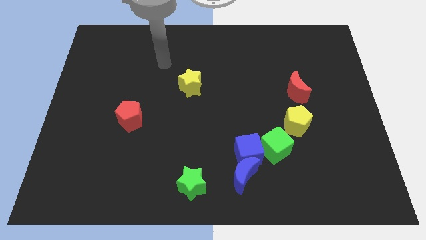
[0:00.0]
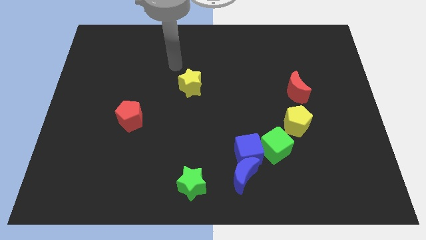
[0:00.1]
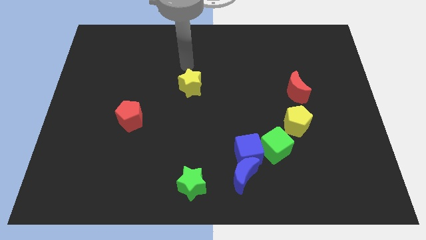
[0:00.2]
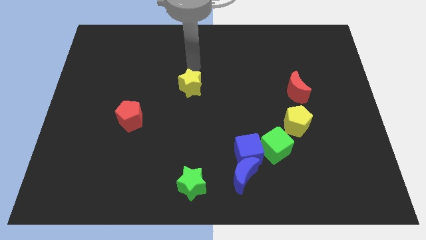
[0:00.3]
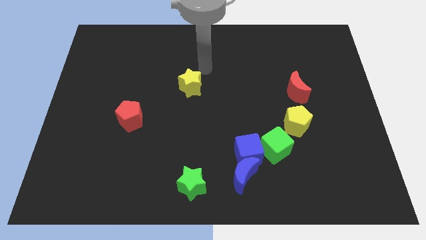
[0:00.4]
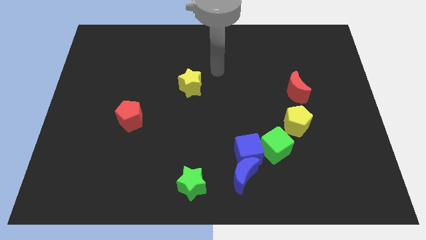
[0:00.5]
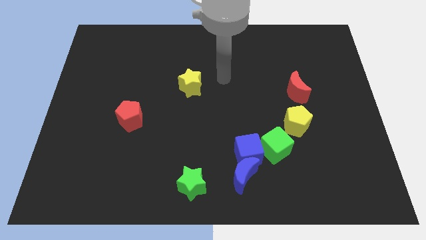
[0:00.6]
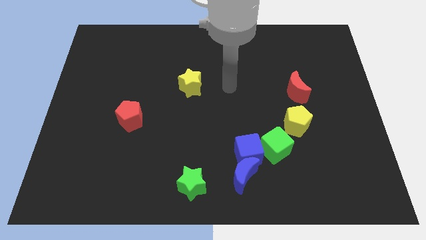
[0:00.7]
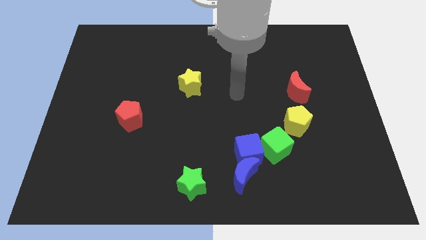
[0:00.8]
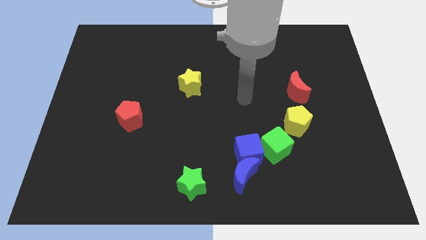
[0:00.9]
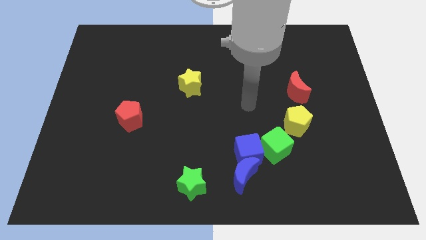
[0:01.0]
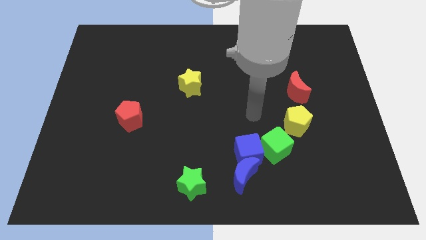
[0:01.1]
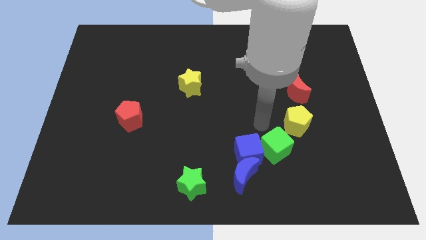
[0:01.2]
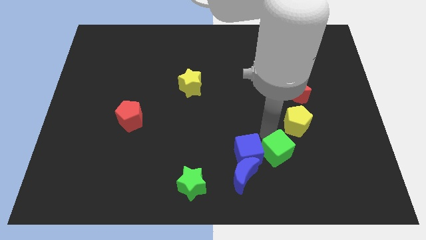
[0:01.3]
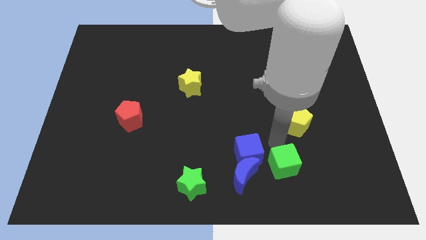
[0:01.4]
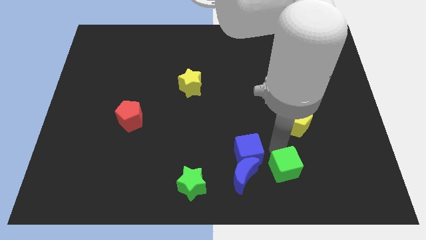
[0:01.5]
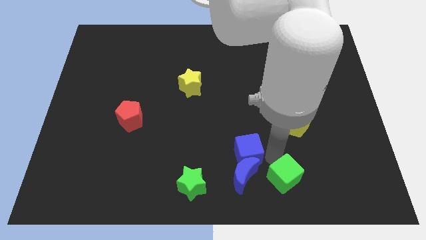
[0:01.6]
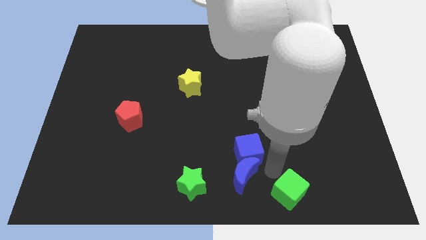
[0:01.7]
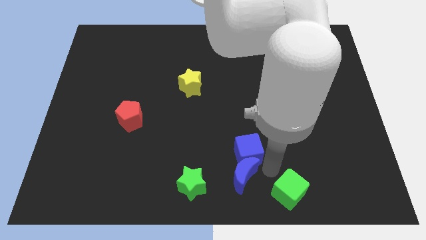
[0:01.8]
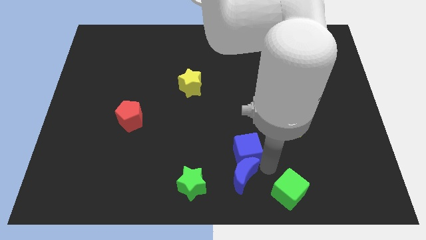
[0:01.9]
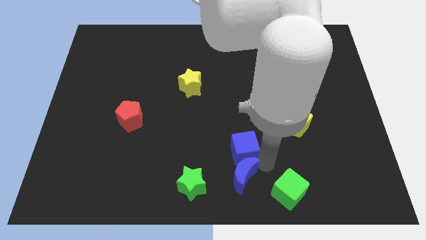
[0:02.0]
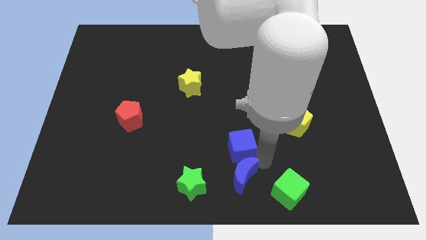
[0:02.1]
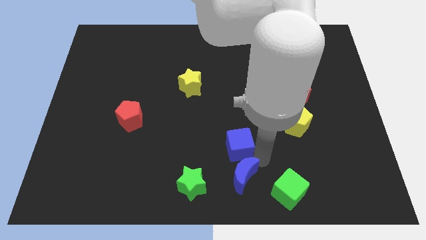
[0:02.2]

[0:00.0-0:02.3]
pull the blue cube apart from the blue moon and green cube

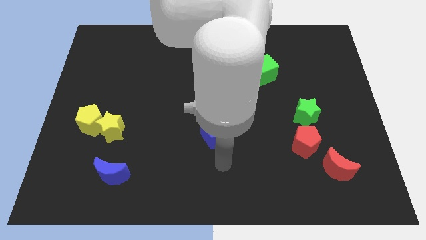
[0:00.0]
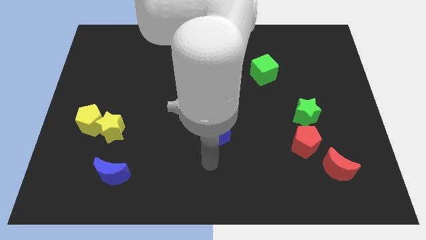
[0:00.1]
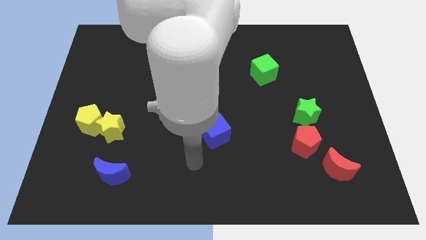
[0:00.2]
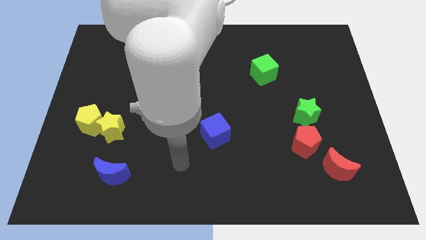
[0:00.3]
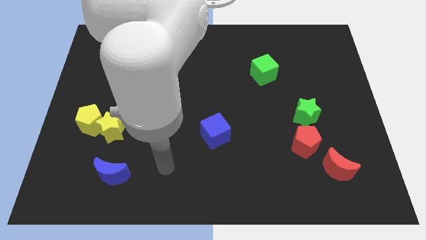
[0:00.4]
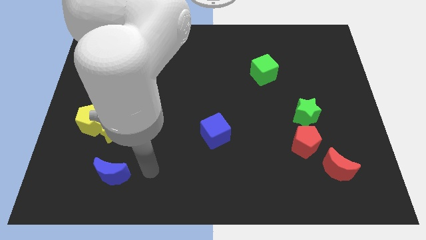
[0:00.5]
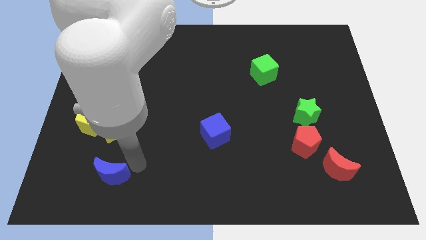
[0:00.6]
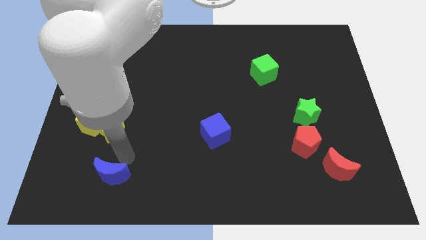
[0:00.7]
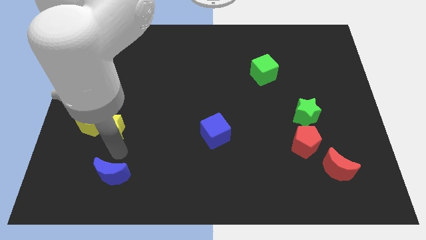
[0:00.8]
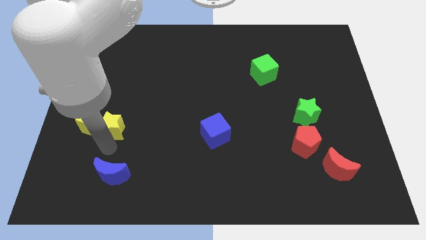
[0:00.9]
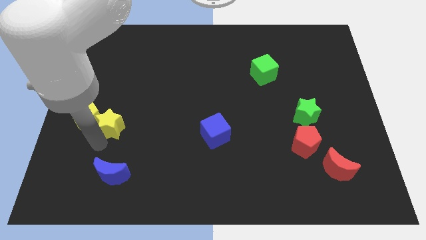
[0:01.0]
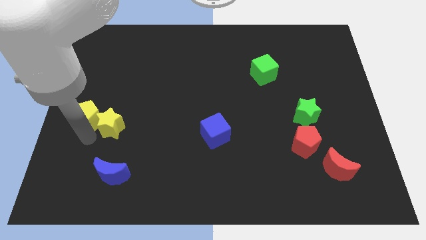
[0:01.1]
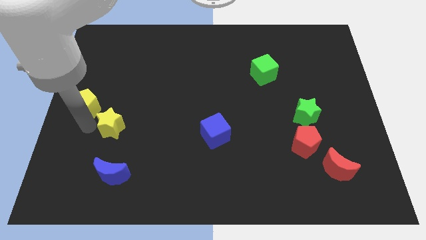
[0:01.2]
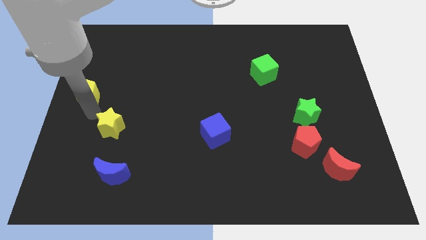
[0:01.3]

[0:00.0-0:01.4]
move the yellow star away from the yellow pentagon

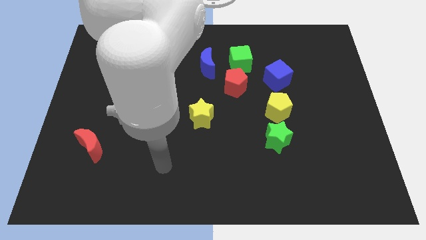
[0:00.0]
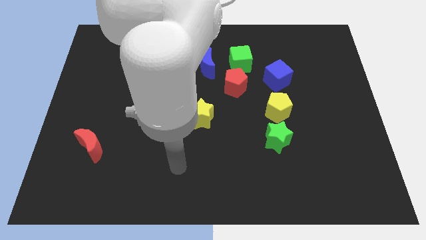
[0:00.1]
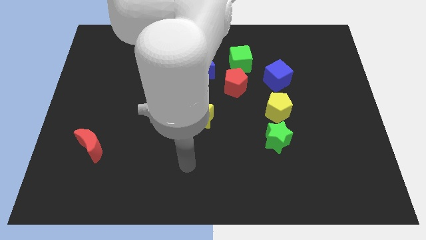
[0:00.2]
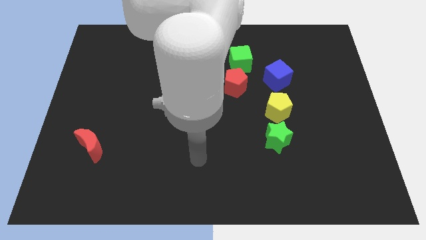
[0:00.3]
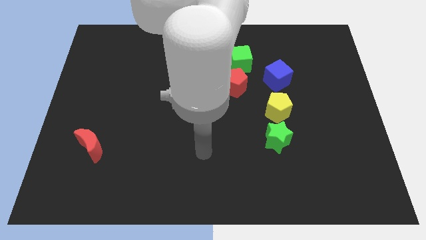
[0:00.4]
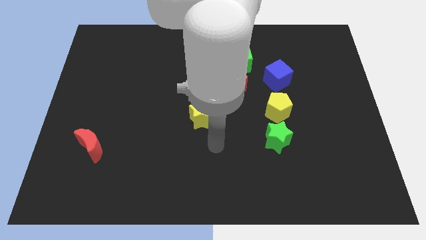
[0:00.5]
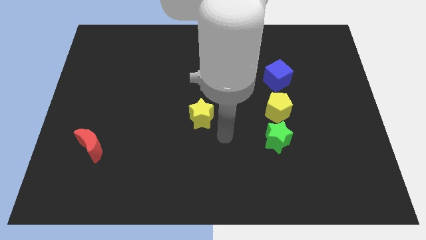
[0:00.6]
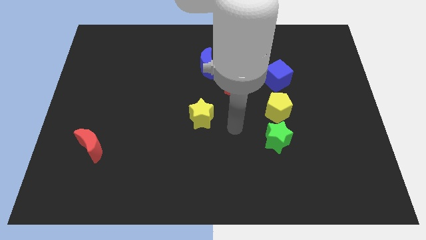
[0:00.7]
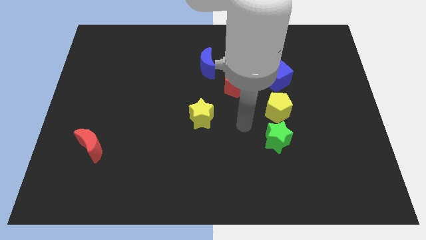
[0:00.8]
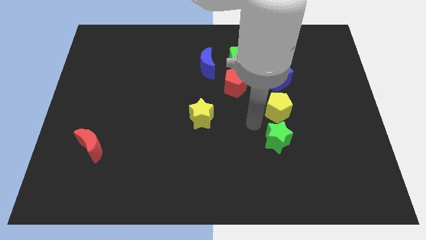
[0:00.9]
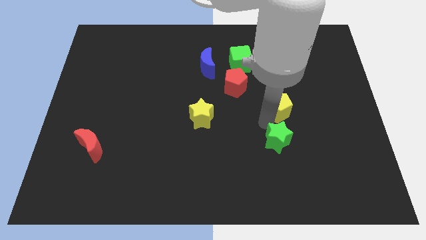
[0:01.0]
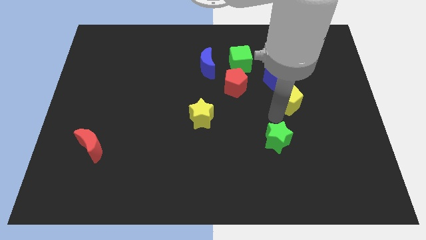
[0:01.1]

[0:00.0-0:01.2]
move the green star away from the yellow pentagon

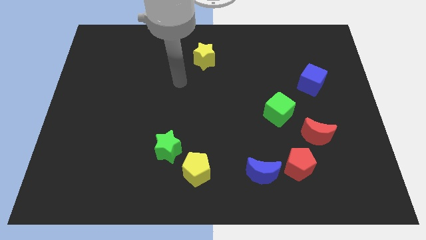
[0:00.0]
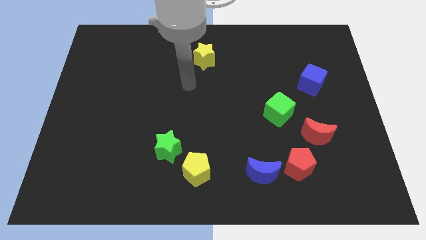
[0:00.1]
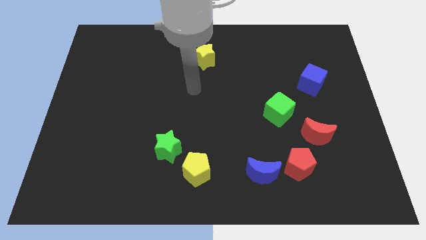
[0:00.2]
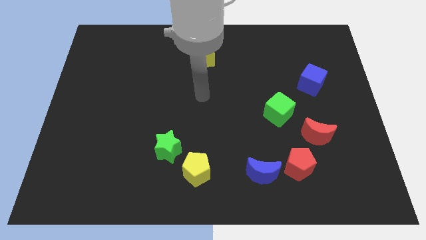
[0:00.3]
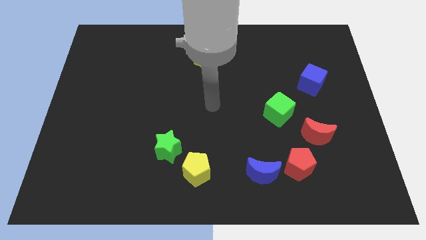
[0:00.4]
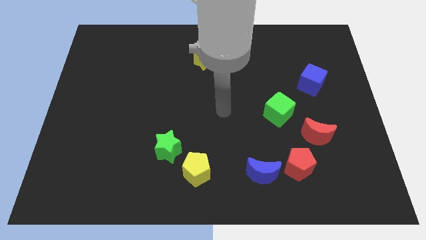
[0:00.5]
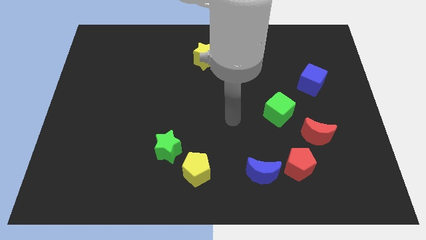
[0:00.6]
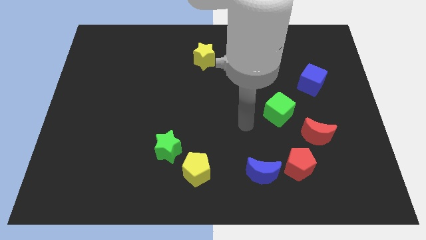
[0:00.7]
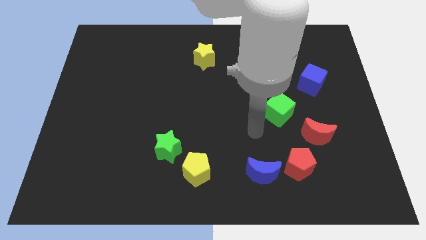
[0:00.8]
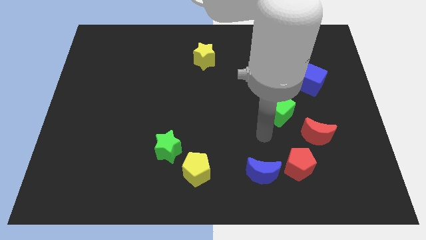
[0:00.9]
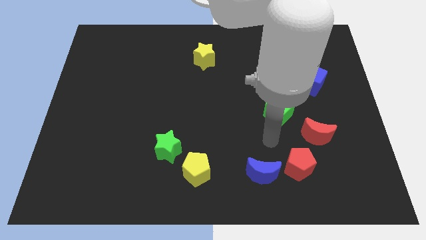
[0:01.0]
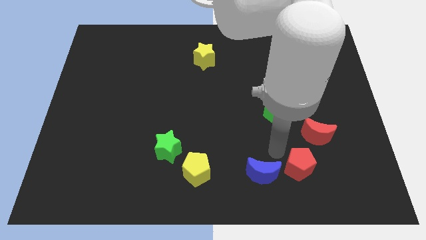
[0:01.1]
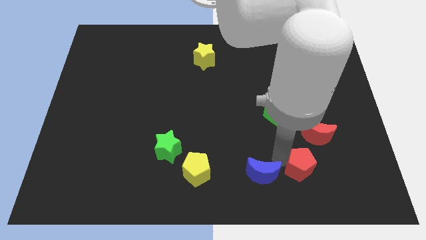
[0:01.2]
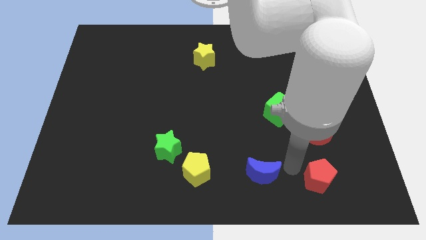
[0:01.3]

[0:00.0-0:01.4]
separate the blue moon from the red pentagon

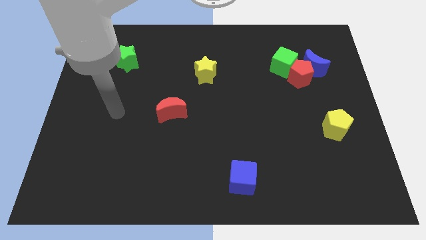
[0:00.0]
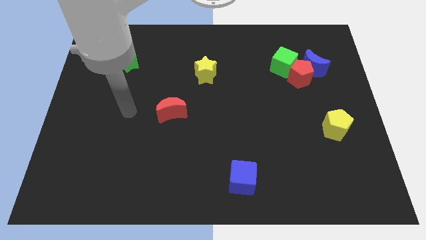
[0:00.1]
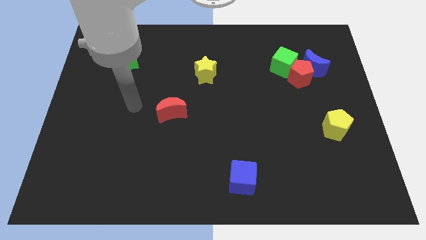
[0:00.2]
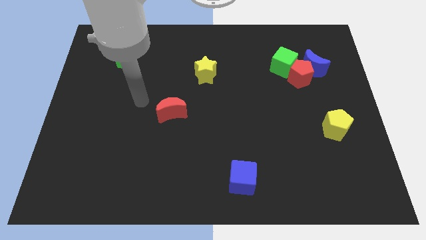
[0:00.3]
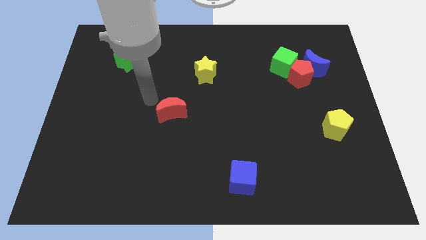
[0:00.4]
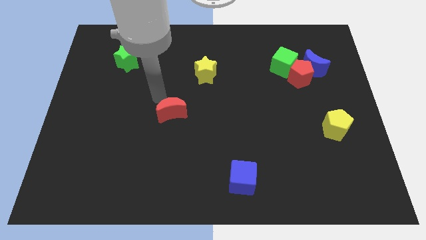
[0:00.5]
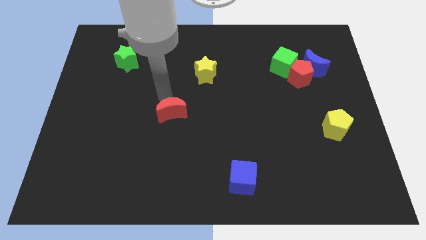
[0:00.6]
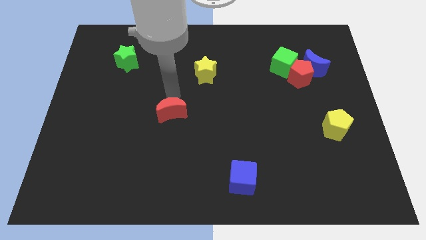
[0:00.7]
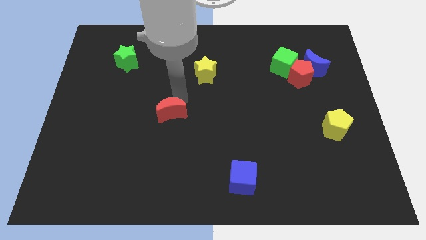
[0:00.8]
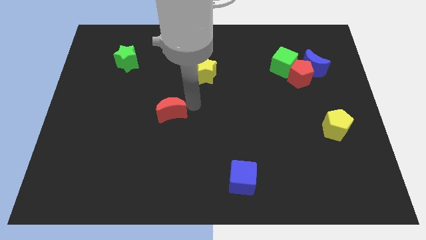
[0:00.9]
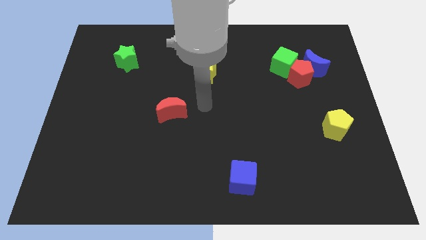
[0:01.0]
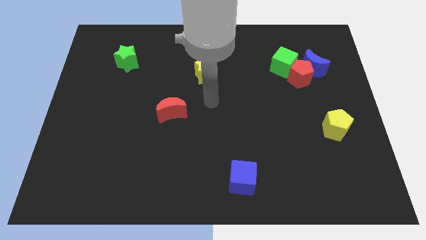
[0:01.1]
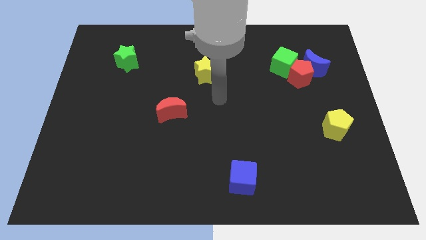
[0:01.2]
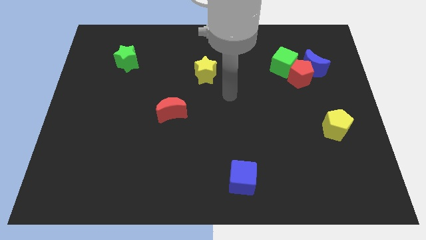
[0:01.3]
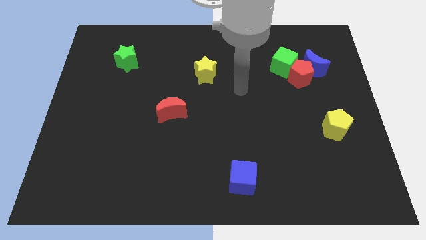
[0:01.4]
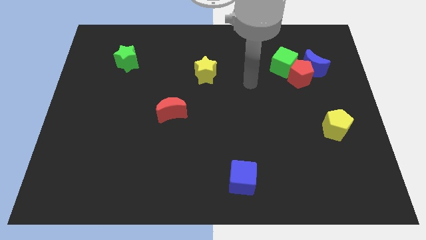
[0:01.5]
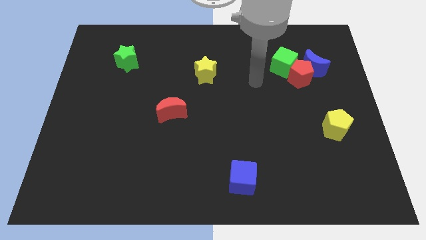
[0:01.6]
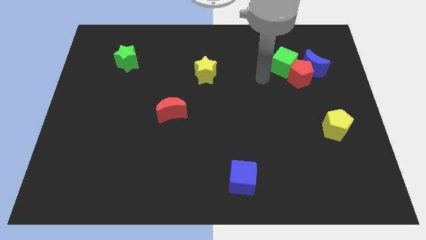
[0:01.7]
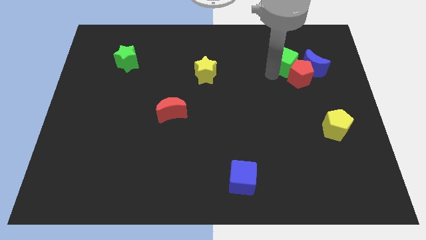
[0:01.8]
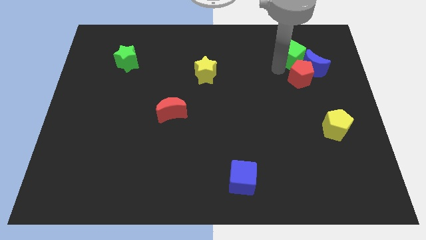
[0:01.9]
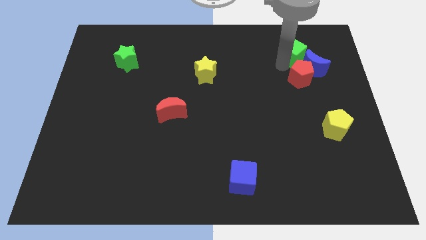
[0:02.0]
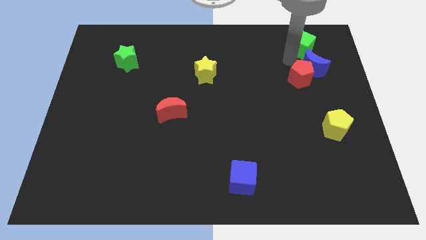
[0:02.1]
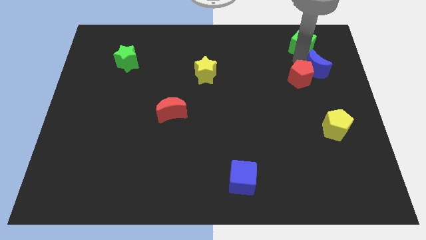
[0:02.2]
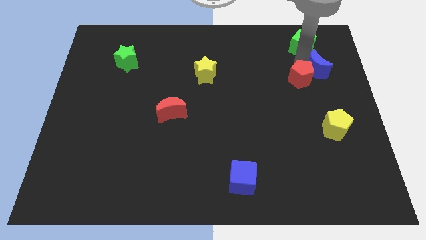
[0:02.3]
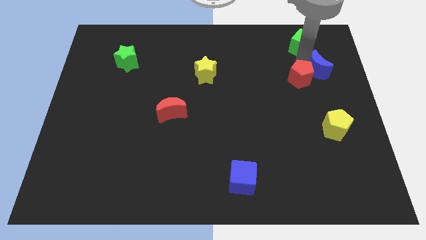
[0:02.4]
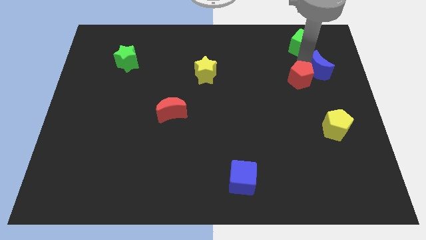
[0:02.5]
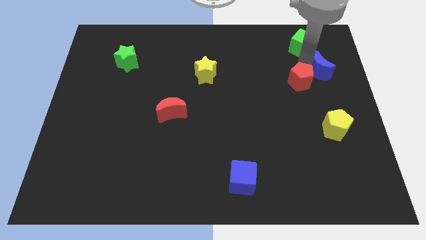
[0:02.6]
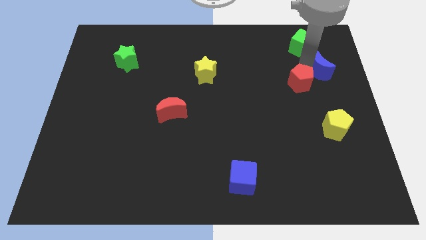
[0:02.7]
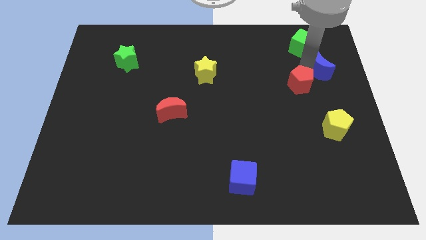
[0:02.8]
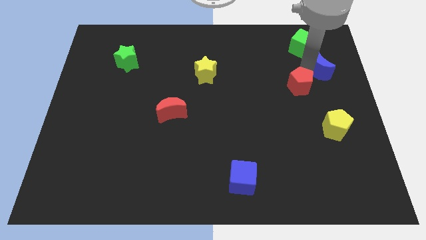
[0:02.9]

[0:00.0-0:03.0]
move the red pentagon away from the blue moon and green cube

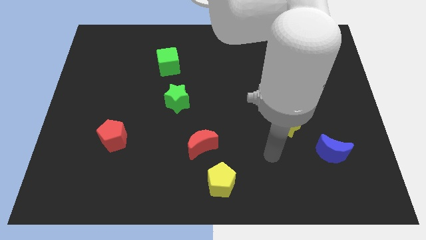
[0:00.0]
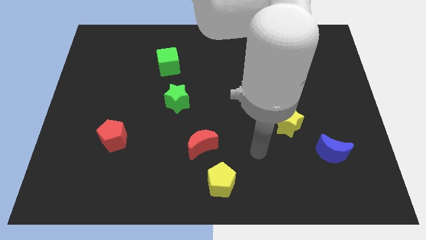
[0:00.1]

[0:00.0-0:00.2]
separate the red moon from the yellow pentagon
